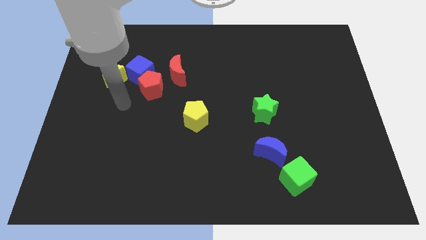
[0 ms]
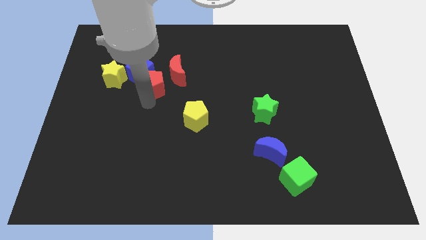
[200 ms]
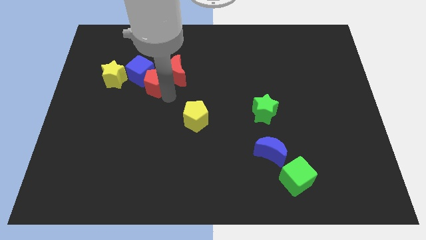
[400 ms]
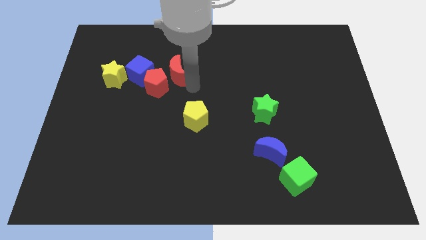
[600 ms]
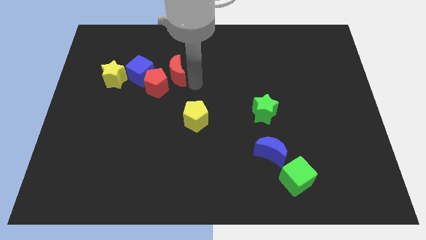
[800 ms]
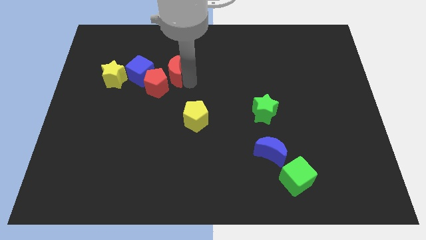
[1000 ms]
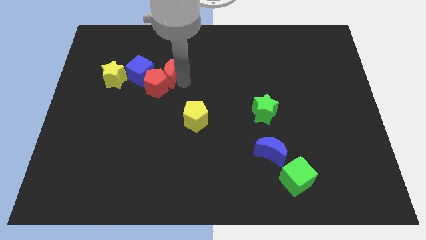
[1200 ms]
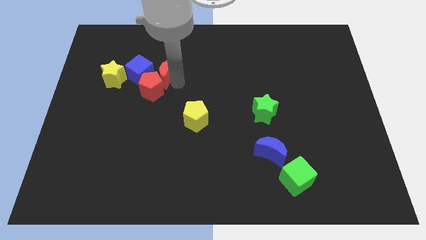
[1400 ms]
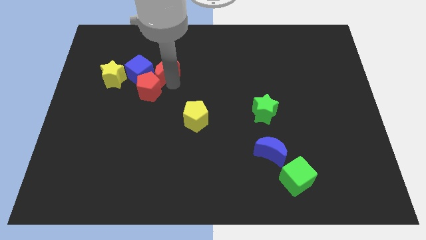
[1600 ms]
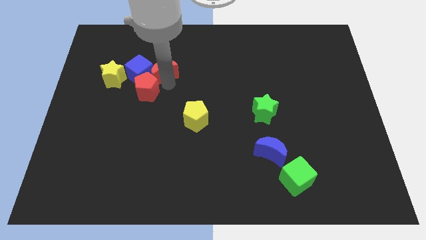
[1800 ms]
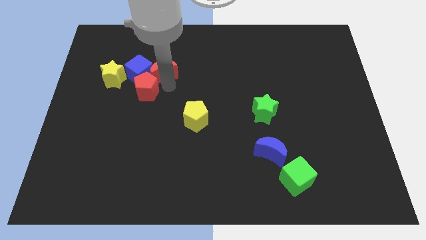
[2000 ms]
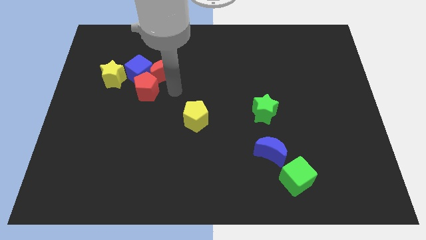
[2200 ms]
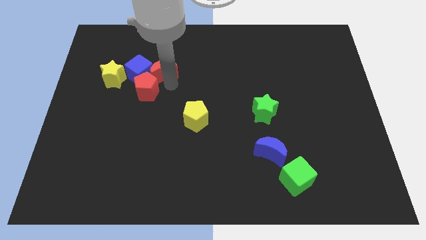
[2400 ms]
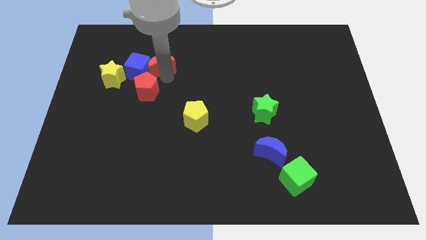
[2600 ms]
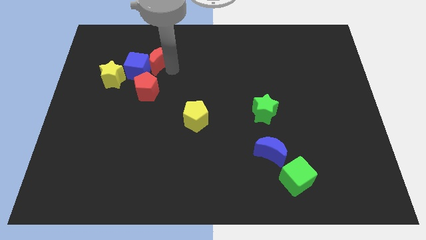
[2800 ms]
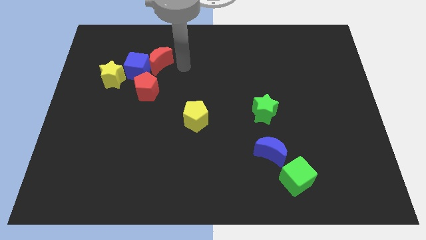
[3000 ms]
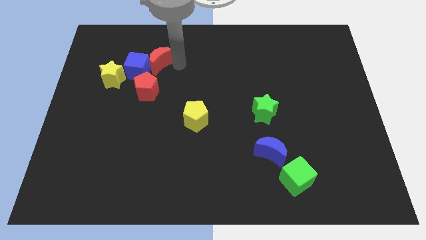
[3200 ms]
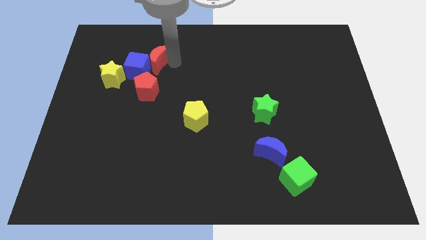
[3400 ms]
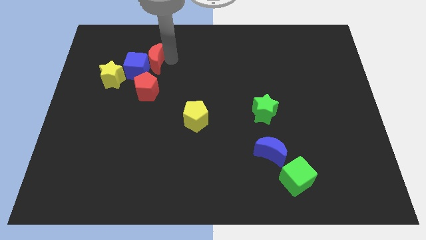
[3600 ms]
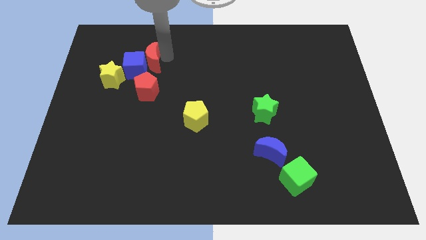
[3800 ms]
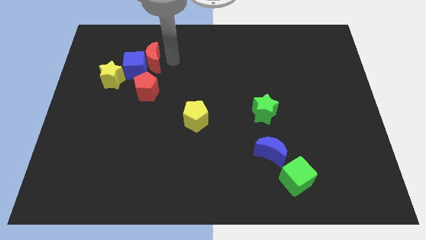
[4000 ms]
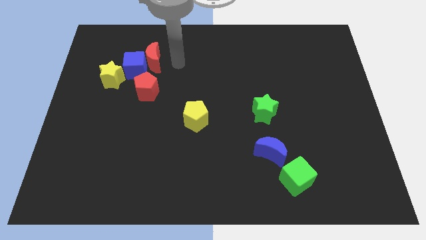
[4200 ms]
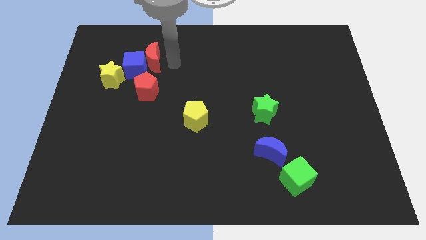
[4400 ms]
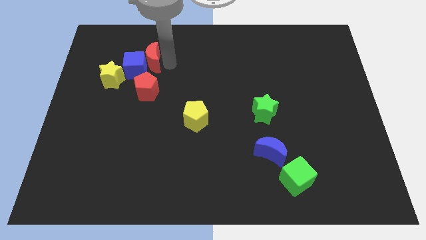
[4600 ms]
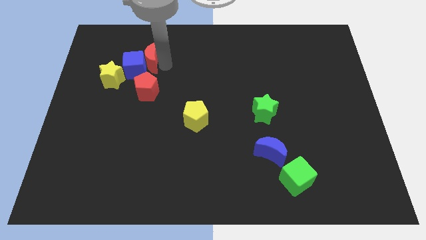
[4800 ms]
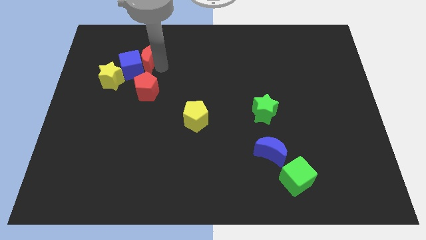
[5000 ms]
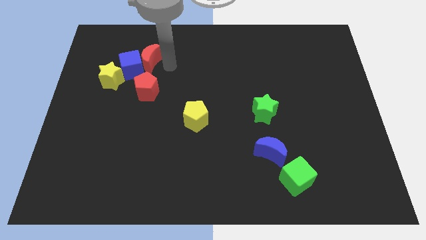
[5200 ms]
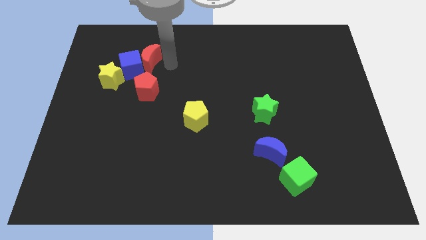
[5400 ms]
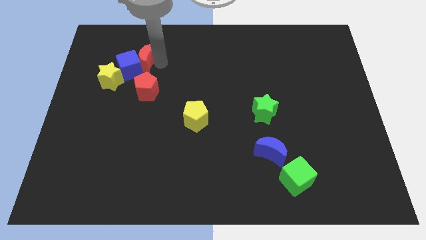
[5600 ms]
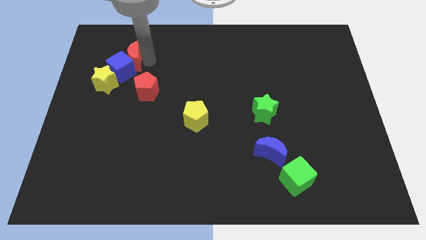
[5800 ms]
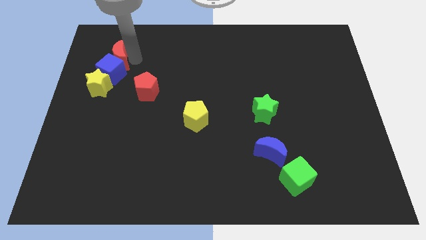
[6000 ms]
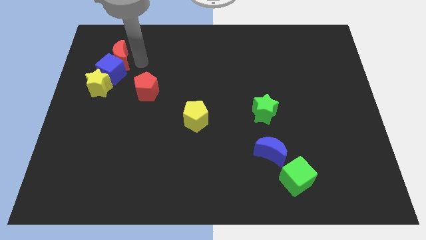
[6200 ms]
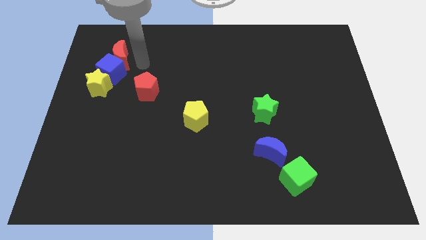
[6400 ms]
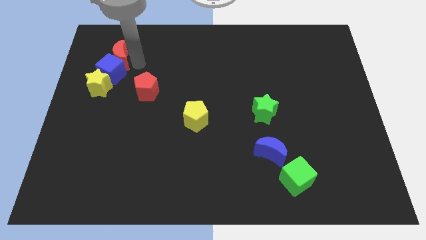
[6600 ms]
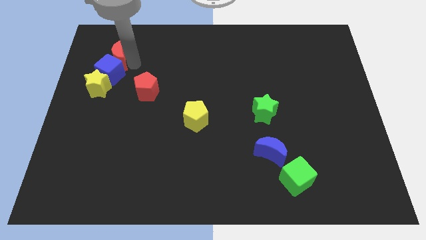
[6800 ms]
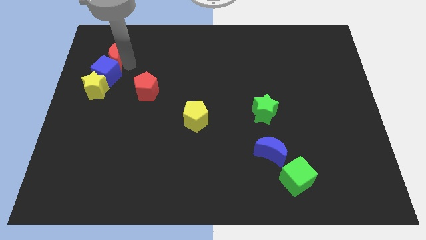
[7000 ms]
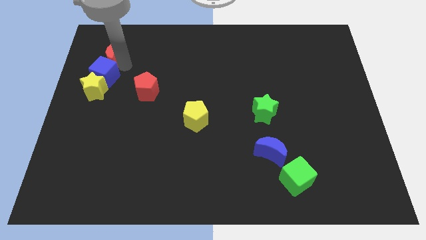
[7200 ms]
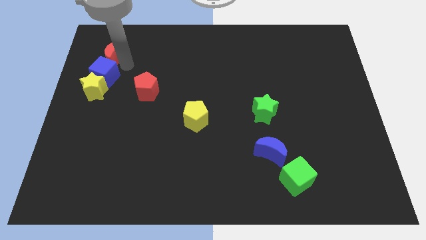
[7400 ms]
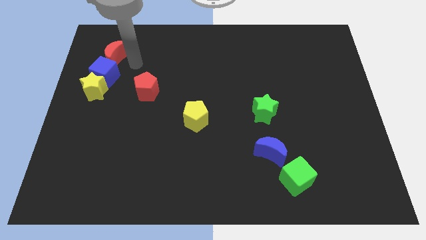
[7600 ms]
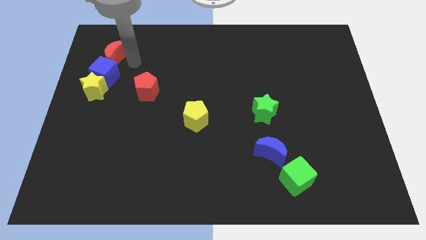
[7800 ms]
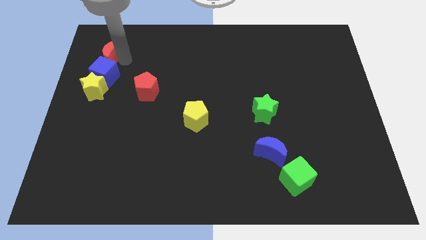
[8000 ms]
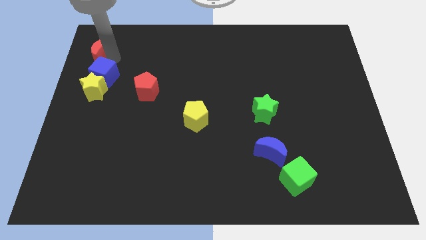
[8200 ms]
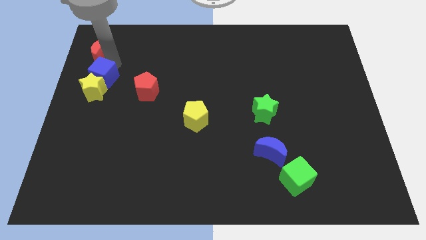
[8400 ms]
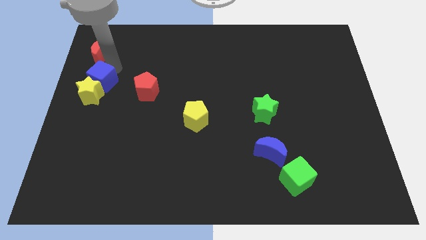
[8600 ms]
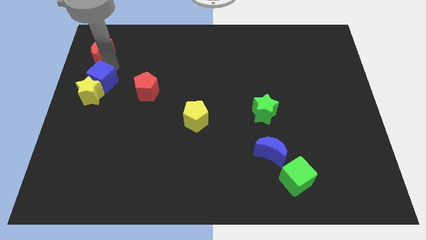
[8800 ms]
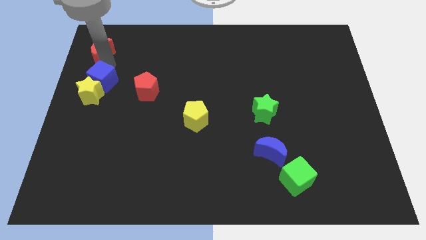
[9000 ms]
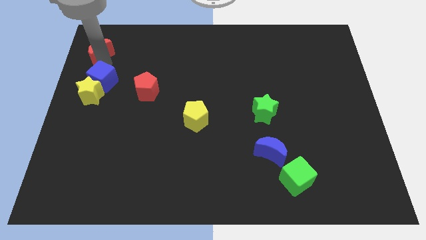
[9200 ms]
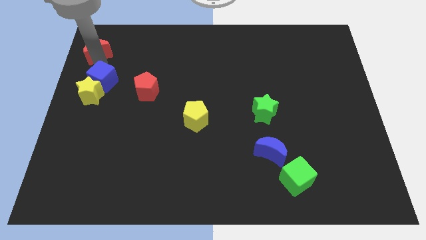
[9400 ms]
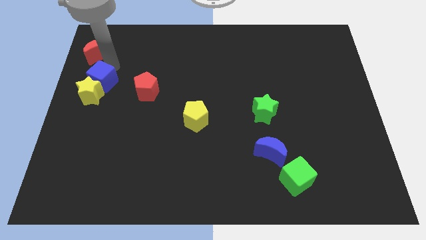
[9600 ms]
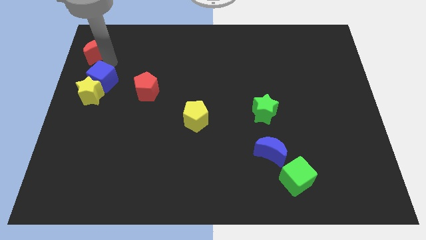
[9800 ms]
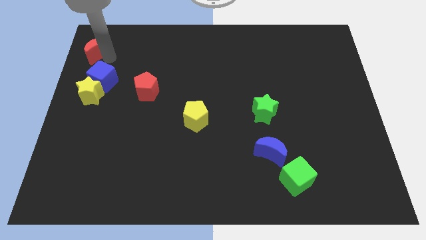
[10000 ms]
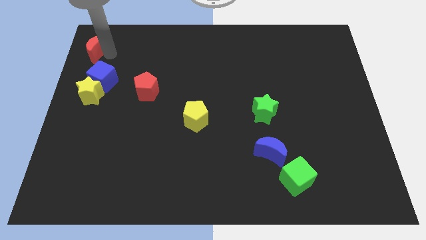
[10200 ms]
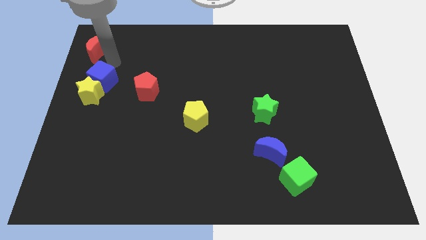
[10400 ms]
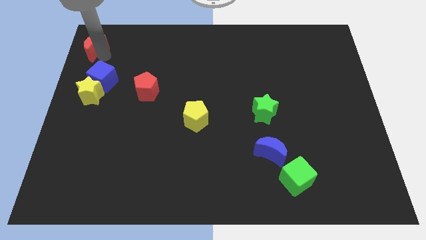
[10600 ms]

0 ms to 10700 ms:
put the red moon to the top left

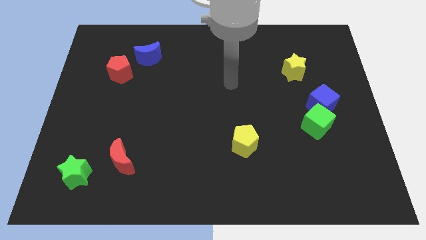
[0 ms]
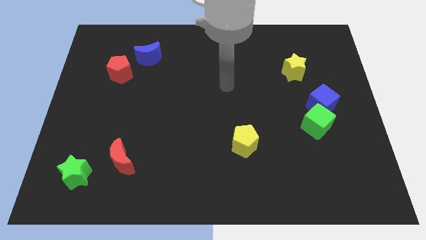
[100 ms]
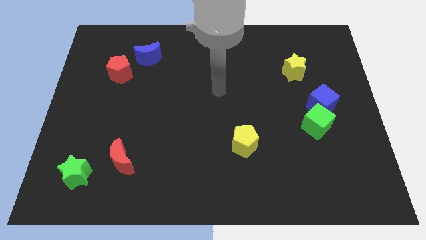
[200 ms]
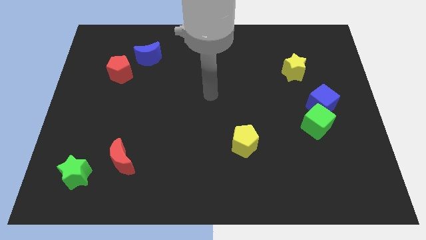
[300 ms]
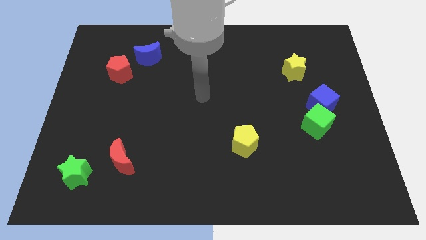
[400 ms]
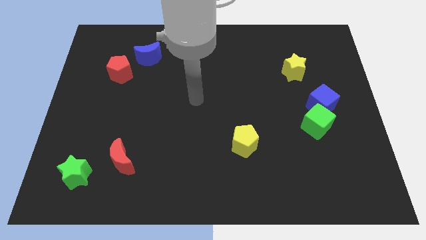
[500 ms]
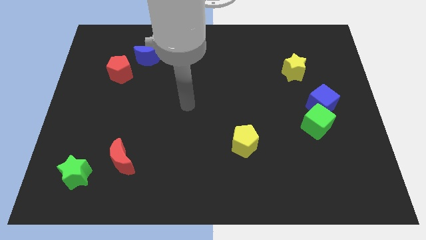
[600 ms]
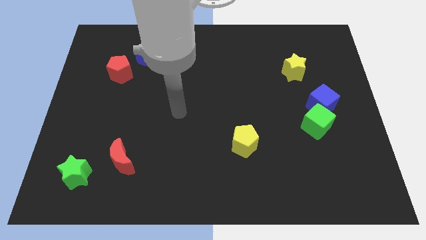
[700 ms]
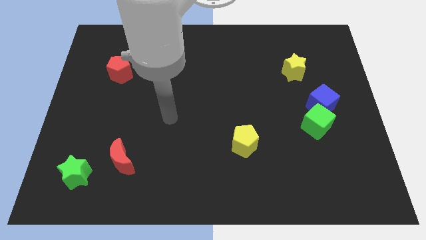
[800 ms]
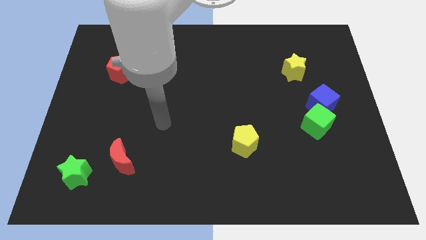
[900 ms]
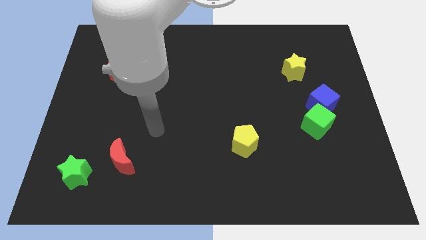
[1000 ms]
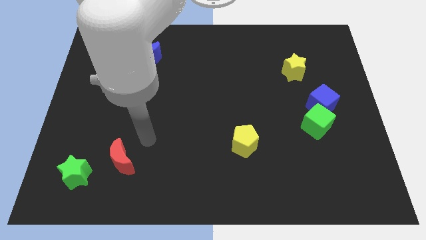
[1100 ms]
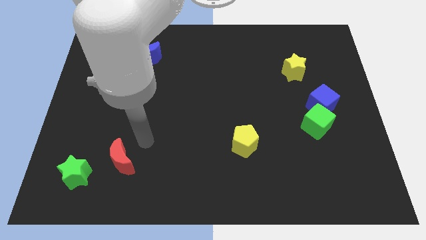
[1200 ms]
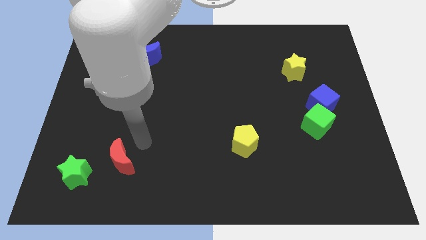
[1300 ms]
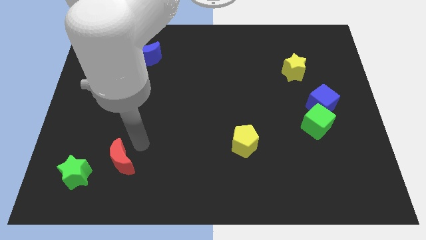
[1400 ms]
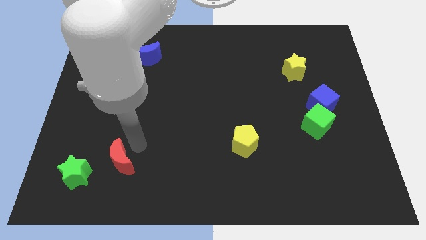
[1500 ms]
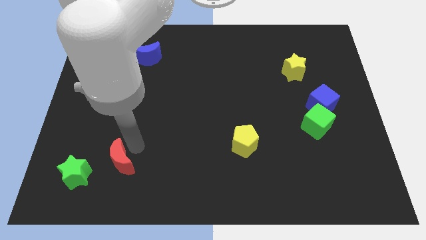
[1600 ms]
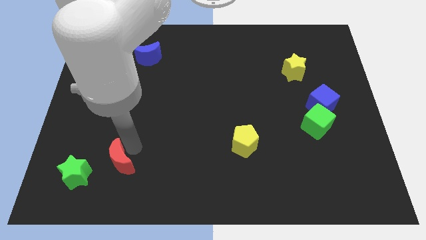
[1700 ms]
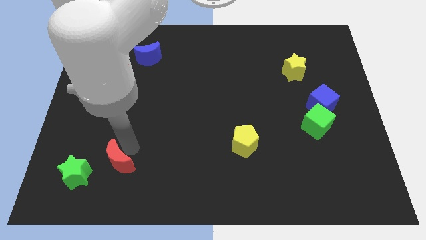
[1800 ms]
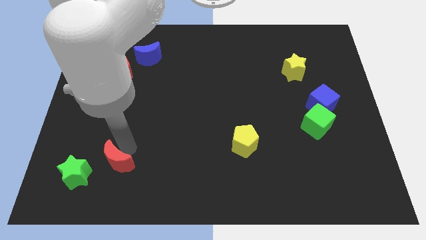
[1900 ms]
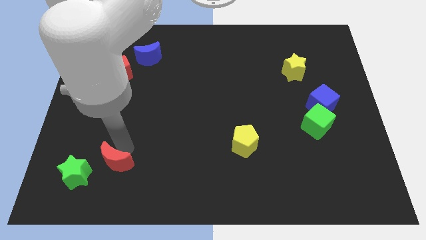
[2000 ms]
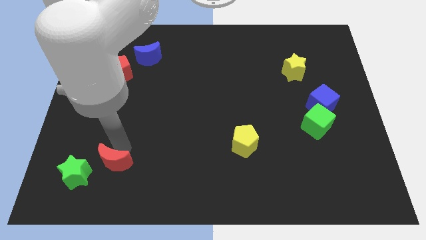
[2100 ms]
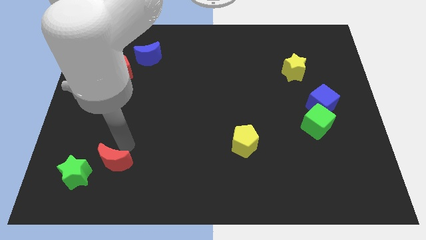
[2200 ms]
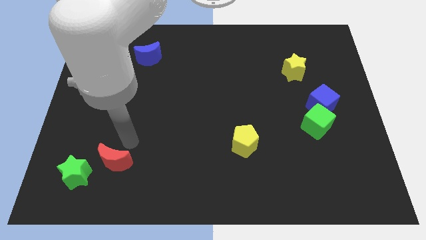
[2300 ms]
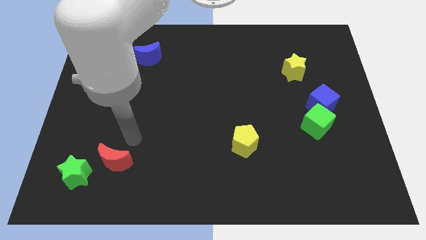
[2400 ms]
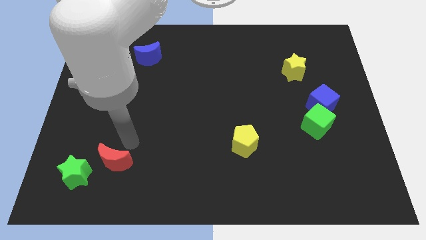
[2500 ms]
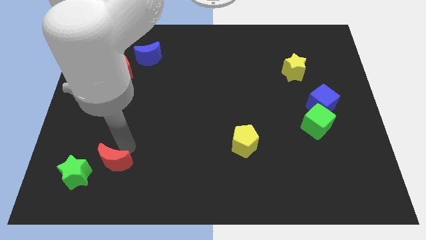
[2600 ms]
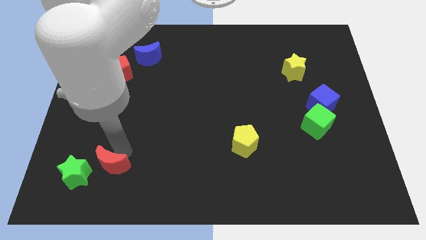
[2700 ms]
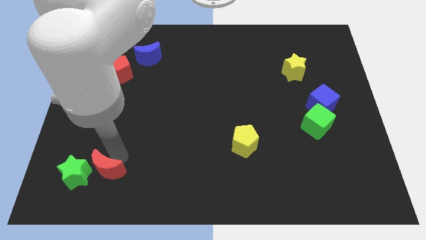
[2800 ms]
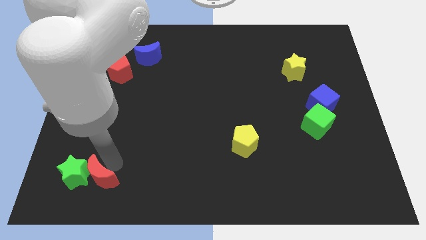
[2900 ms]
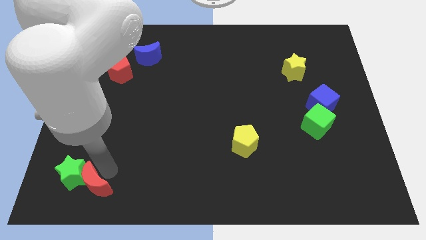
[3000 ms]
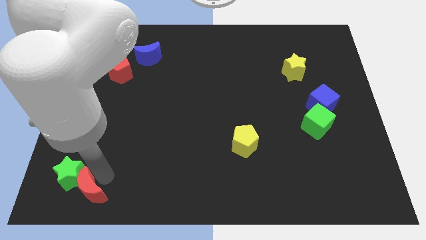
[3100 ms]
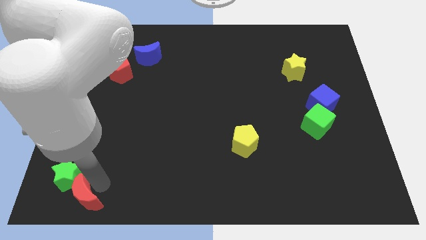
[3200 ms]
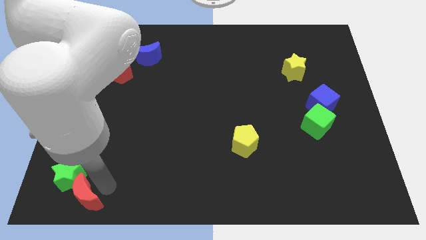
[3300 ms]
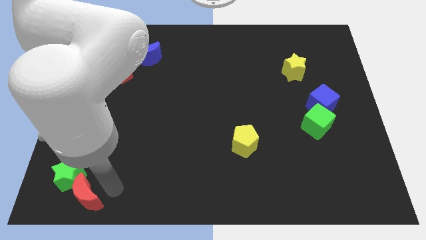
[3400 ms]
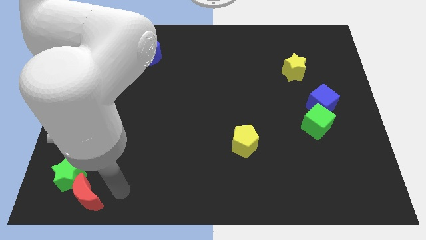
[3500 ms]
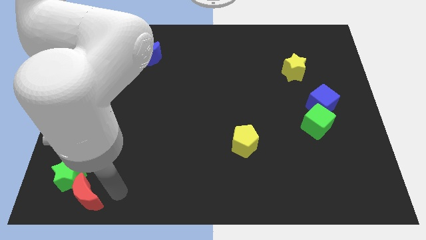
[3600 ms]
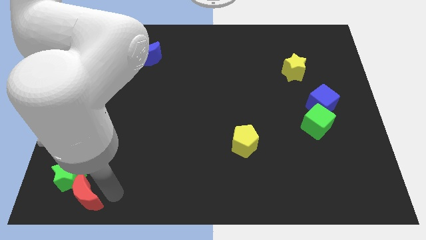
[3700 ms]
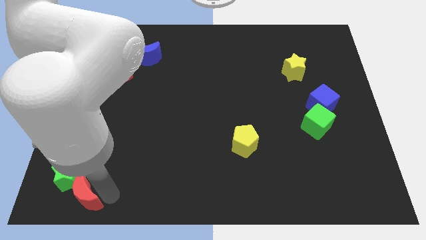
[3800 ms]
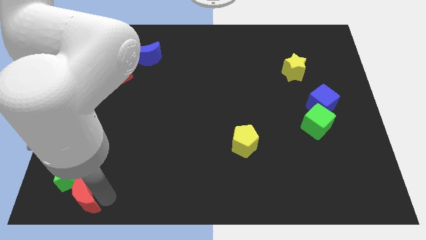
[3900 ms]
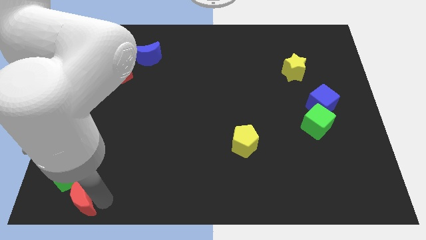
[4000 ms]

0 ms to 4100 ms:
slide the red moon to the lower left corner
